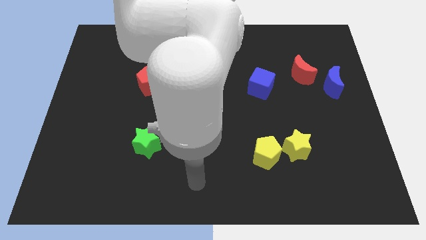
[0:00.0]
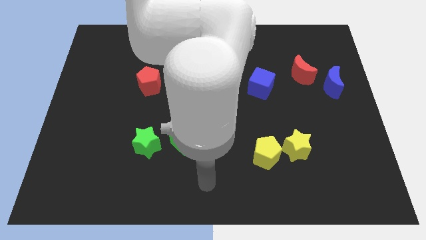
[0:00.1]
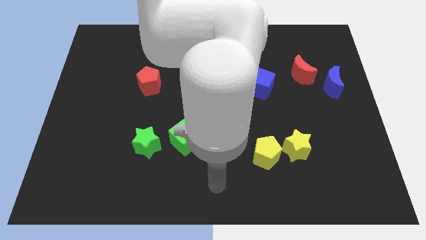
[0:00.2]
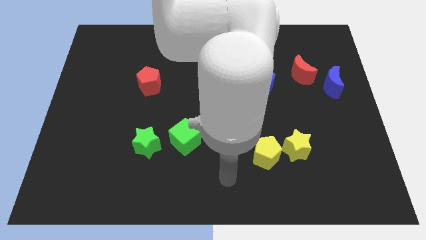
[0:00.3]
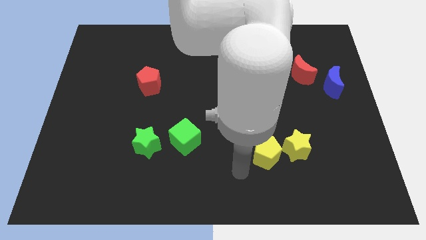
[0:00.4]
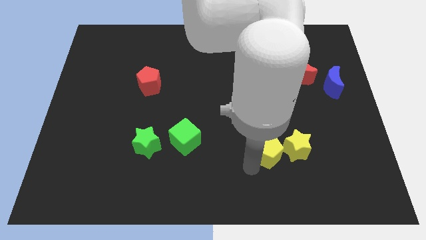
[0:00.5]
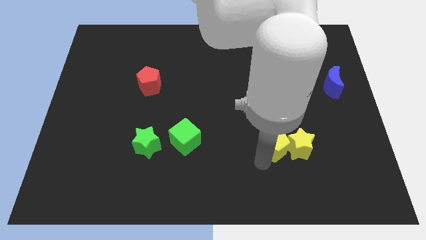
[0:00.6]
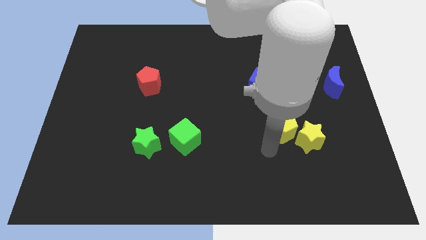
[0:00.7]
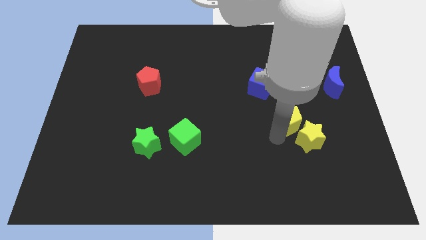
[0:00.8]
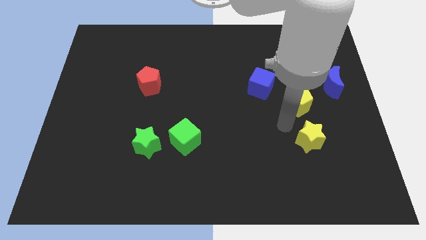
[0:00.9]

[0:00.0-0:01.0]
separate the yellow star from the yellow pentagon

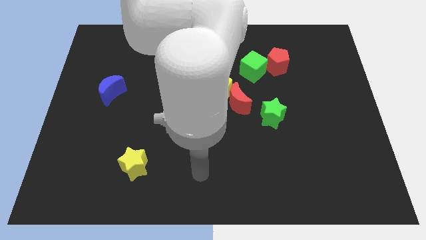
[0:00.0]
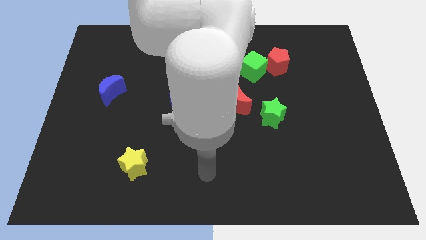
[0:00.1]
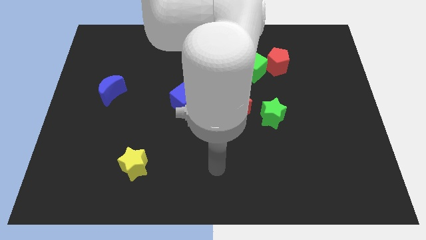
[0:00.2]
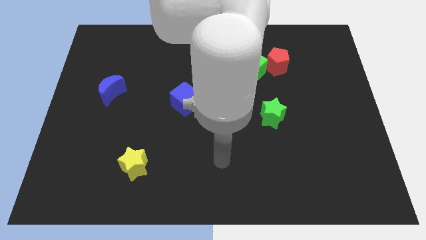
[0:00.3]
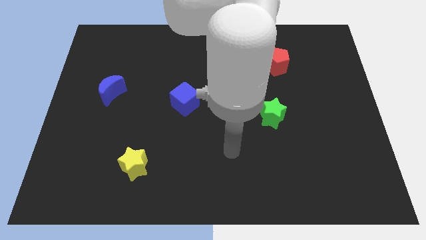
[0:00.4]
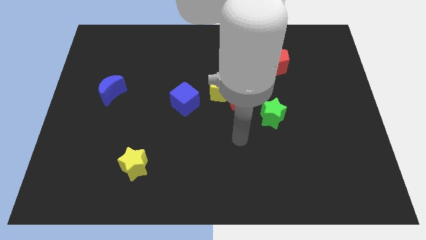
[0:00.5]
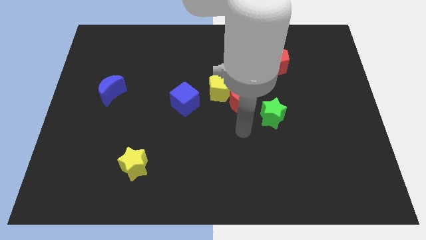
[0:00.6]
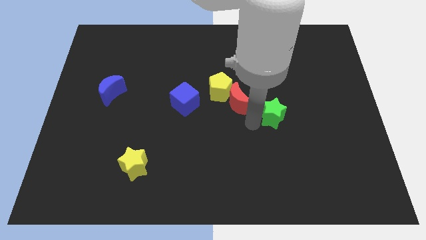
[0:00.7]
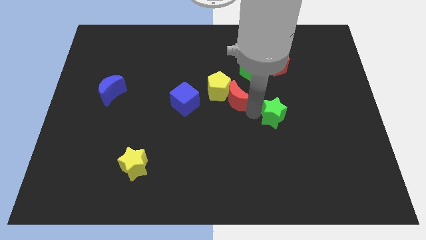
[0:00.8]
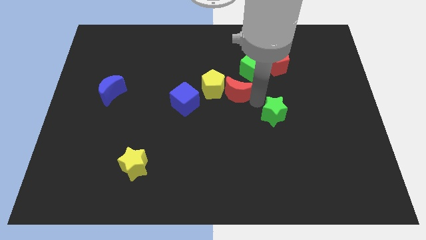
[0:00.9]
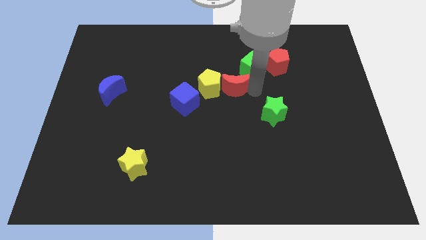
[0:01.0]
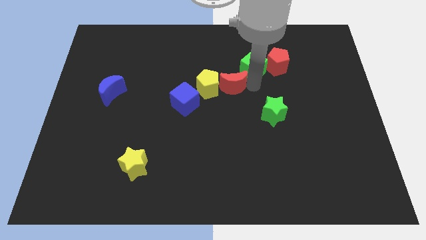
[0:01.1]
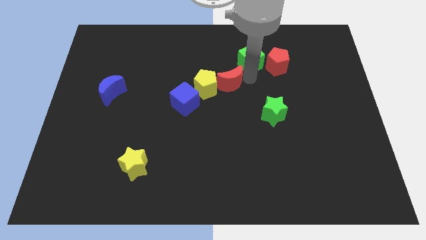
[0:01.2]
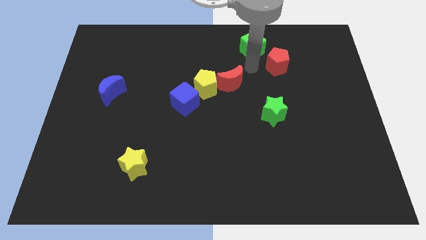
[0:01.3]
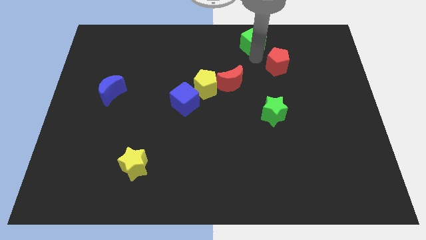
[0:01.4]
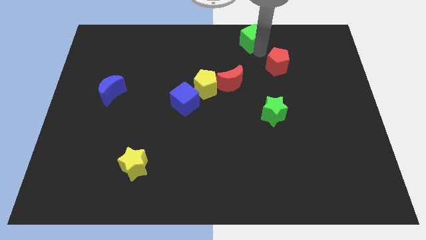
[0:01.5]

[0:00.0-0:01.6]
pull the red pentagon apart from the green cube

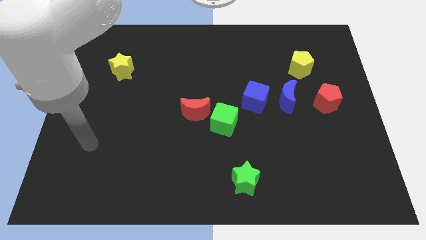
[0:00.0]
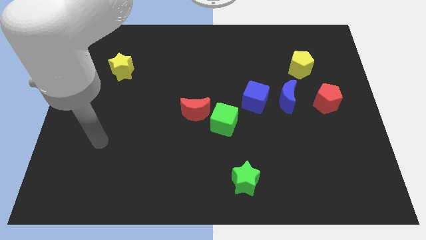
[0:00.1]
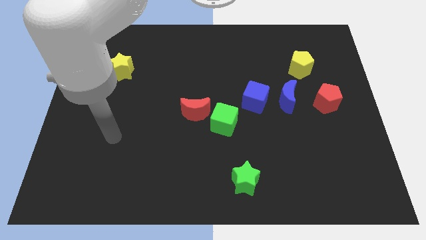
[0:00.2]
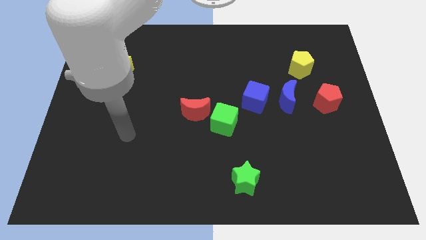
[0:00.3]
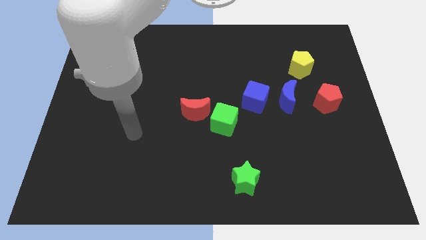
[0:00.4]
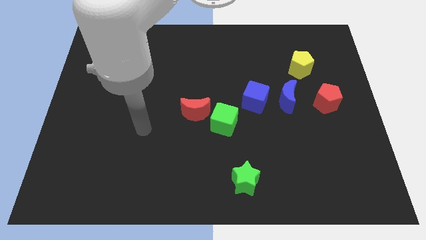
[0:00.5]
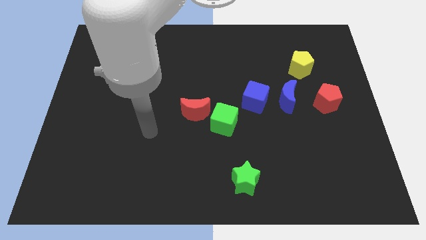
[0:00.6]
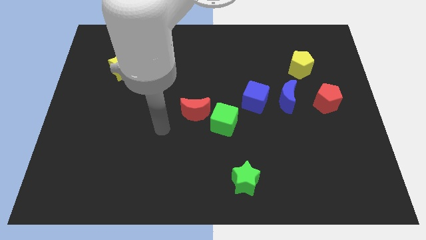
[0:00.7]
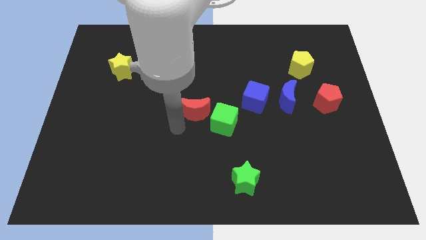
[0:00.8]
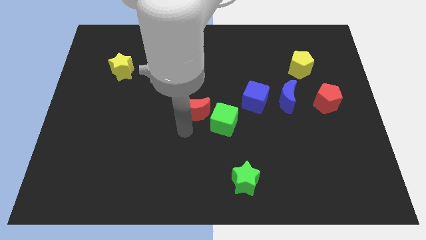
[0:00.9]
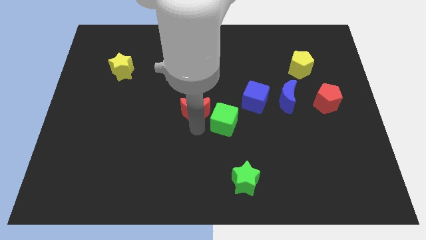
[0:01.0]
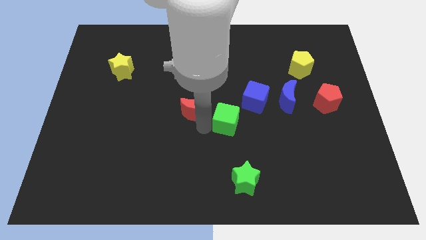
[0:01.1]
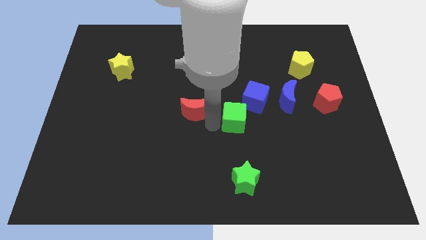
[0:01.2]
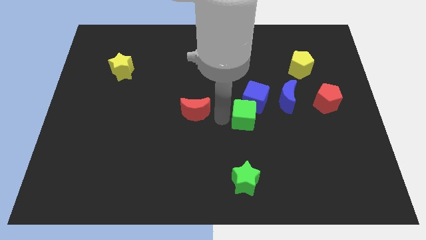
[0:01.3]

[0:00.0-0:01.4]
pull the red moon apart from the green cube

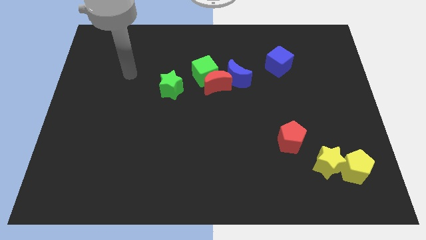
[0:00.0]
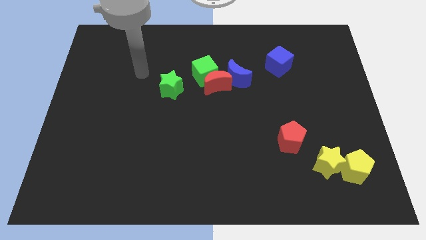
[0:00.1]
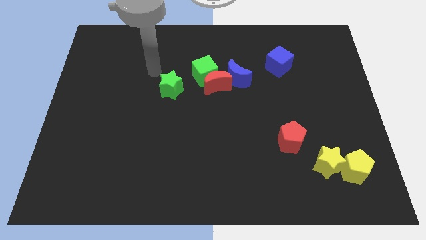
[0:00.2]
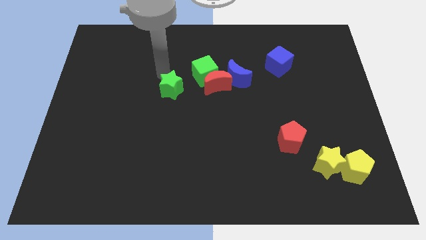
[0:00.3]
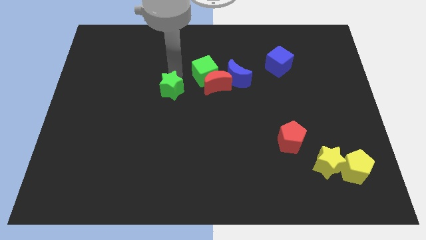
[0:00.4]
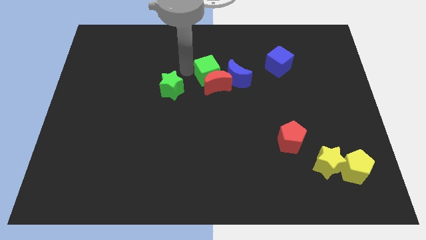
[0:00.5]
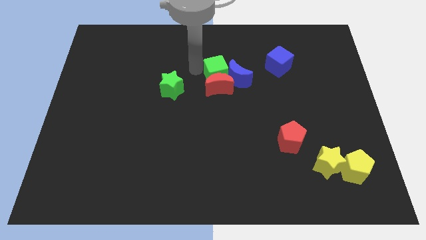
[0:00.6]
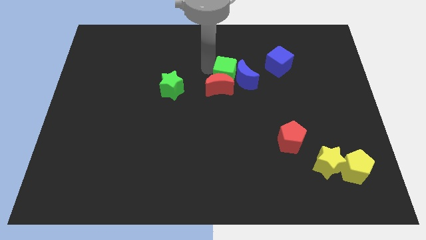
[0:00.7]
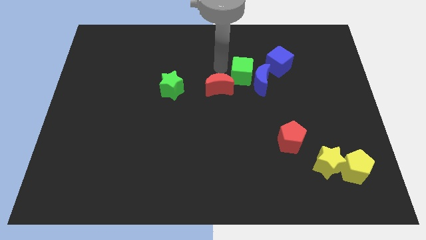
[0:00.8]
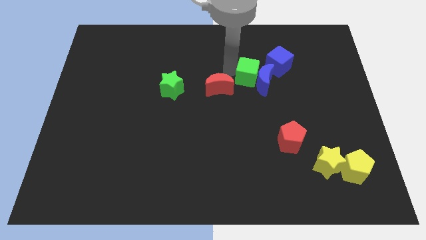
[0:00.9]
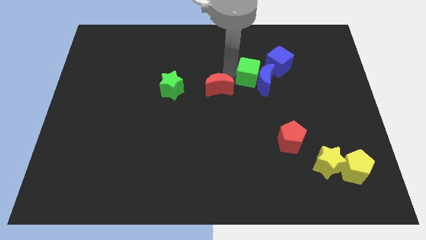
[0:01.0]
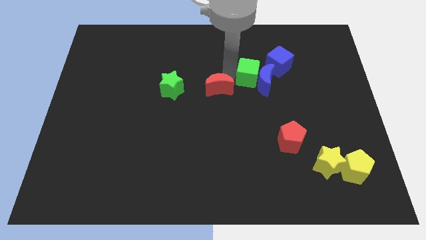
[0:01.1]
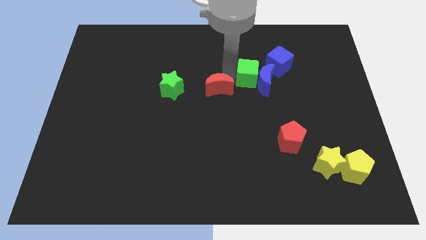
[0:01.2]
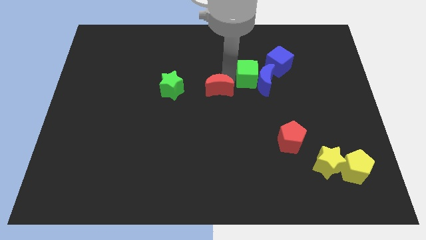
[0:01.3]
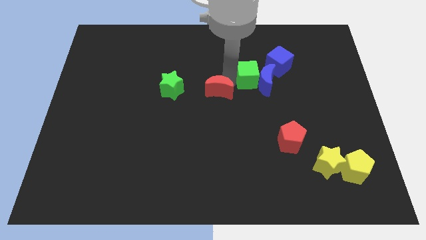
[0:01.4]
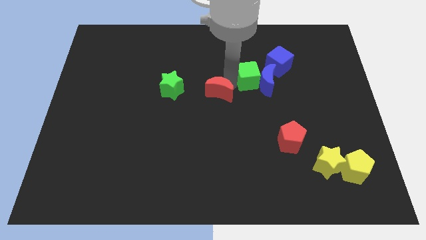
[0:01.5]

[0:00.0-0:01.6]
move the red moon away from the green cube and blue moon

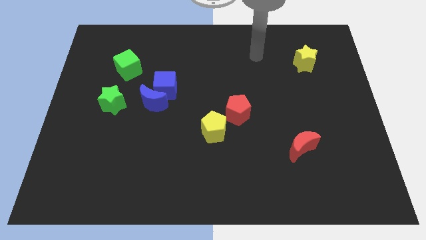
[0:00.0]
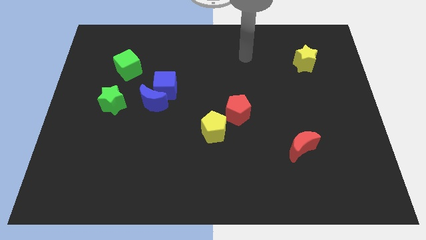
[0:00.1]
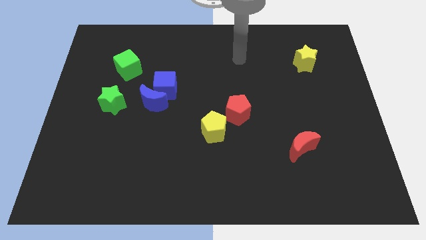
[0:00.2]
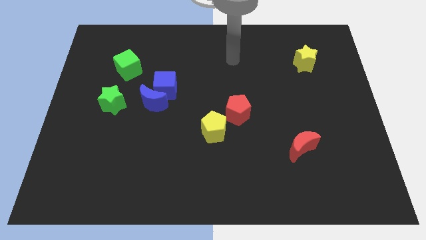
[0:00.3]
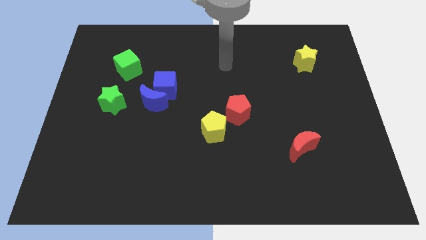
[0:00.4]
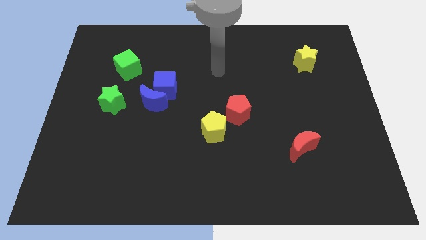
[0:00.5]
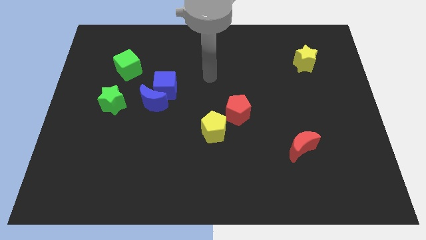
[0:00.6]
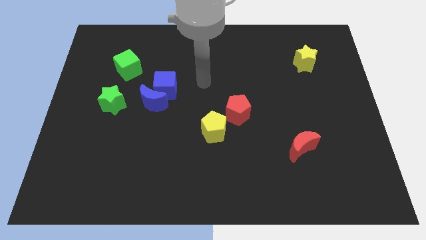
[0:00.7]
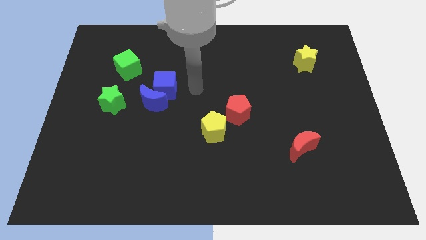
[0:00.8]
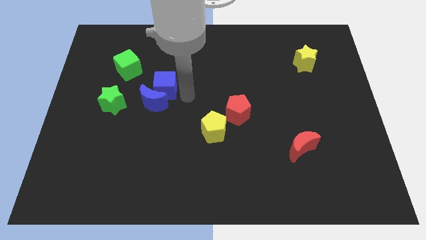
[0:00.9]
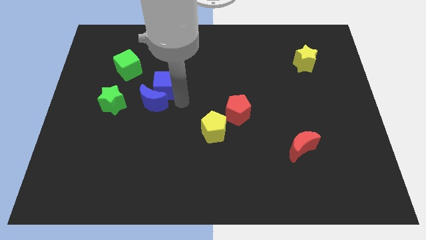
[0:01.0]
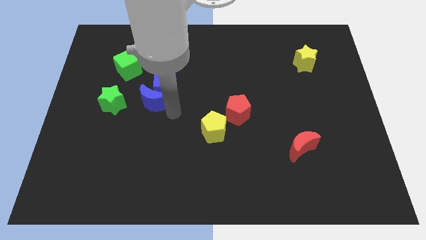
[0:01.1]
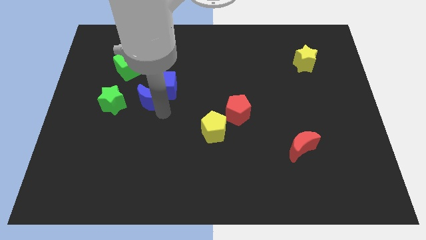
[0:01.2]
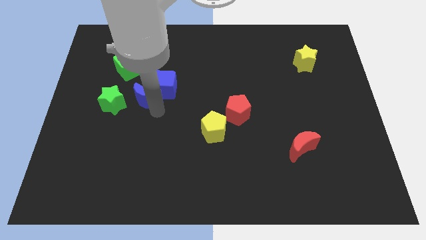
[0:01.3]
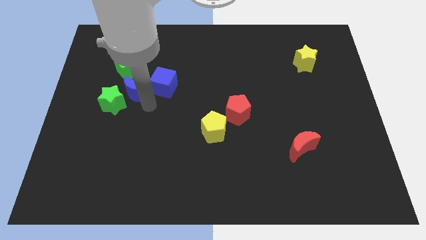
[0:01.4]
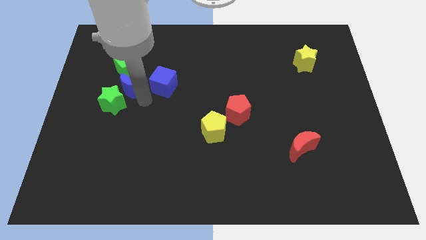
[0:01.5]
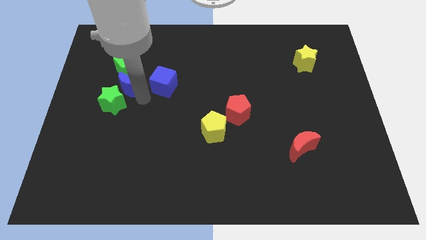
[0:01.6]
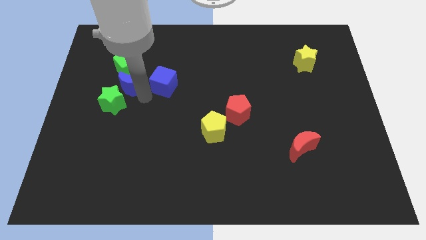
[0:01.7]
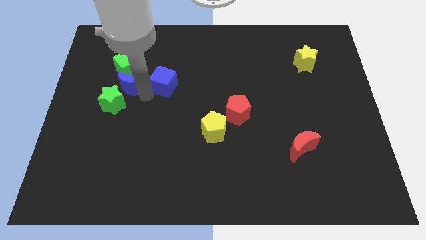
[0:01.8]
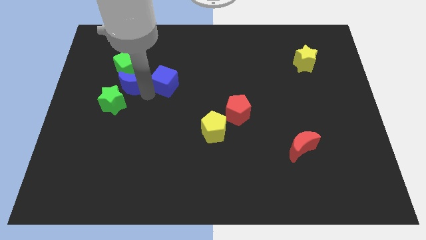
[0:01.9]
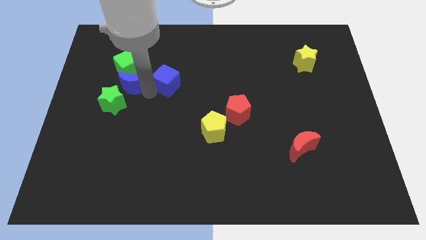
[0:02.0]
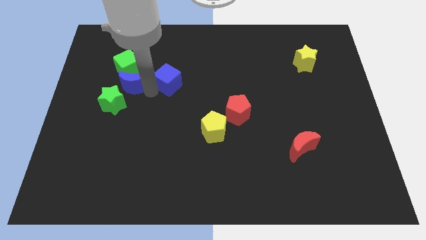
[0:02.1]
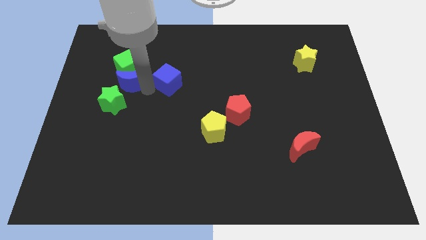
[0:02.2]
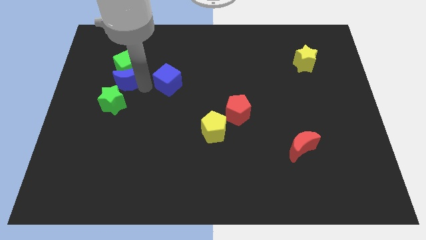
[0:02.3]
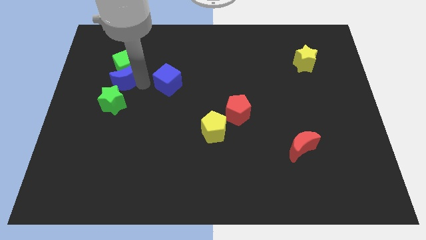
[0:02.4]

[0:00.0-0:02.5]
separate the blue cube from the blue moon

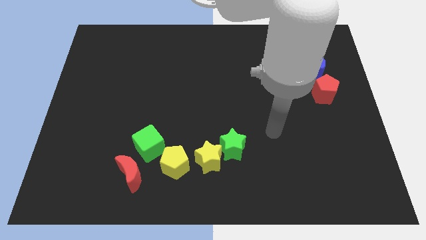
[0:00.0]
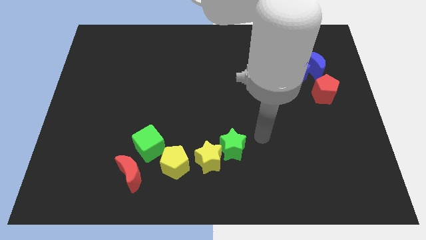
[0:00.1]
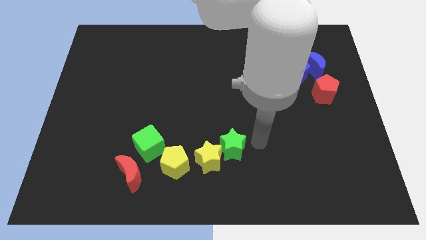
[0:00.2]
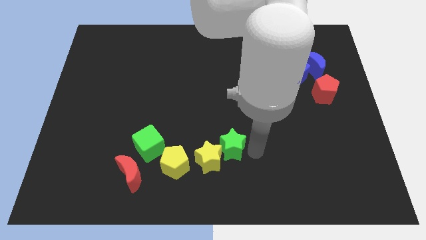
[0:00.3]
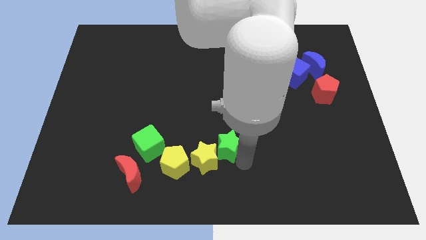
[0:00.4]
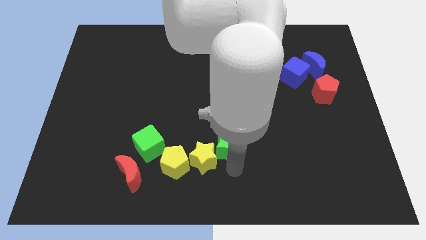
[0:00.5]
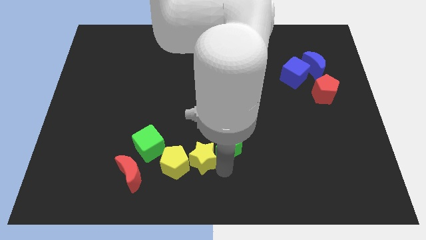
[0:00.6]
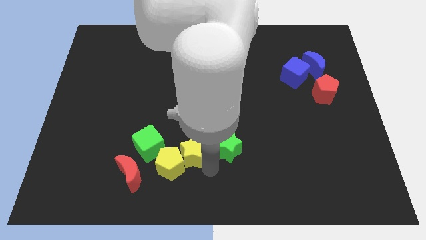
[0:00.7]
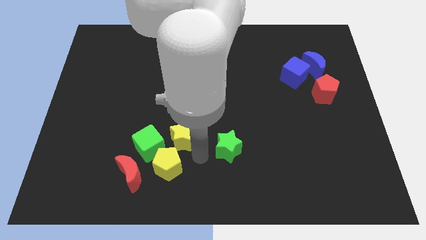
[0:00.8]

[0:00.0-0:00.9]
separate the green star from the yellow star

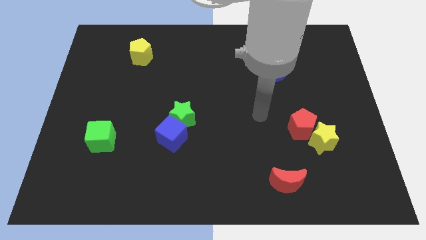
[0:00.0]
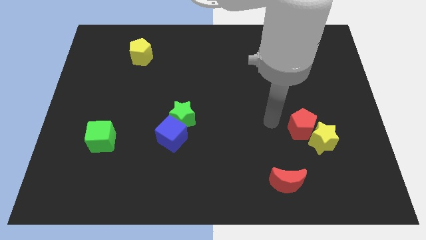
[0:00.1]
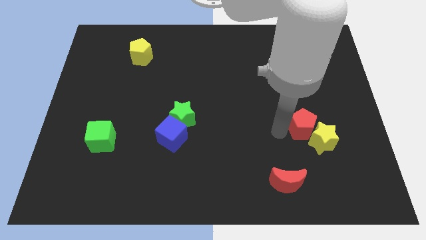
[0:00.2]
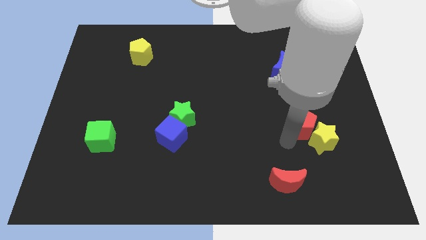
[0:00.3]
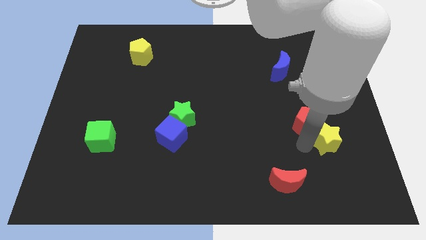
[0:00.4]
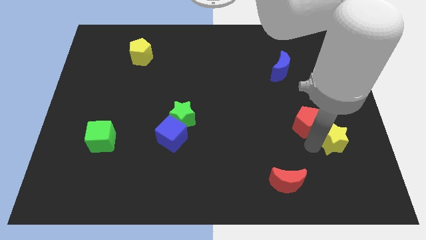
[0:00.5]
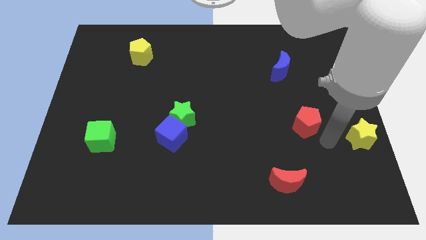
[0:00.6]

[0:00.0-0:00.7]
pull the red pentagon apart from the yellow star
